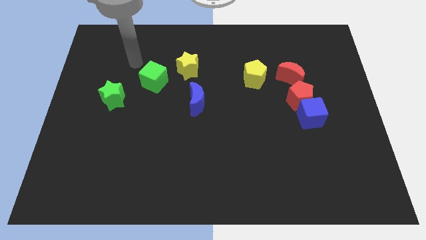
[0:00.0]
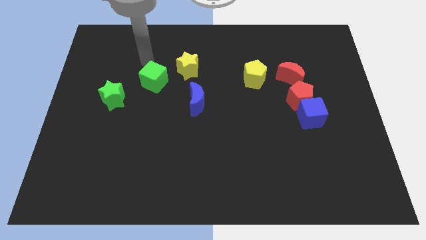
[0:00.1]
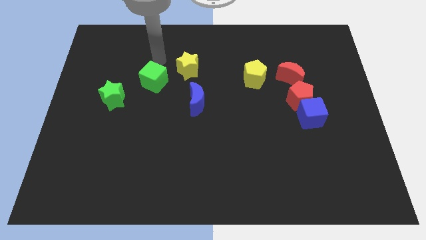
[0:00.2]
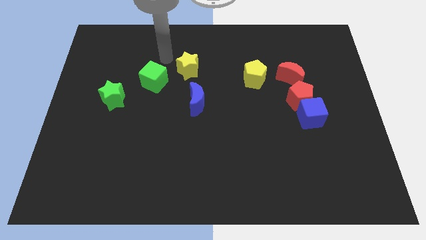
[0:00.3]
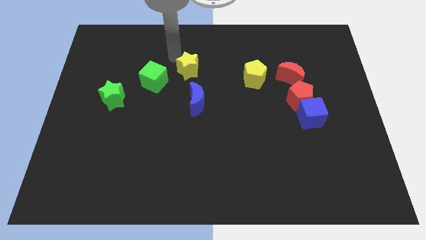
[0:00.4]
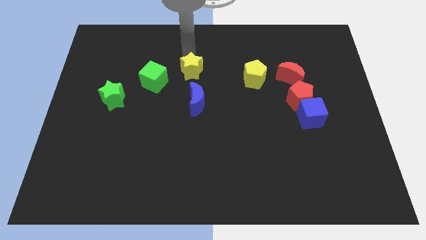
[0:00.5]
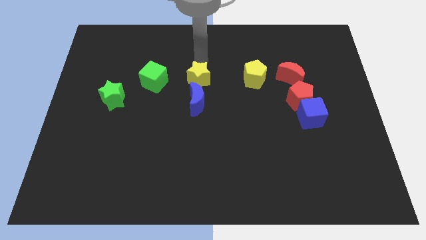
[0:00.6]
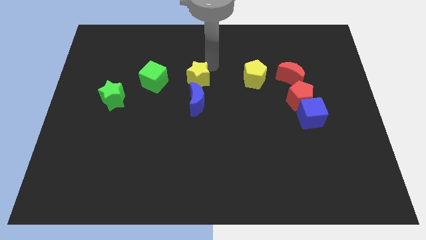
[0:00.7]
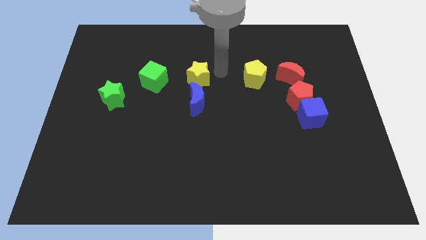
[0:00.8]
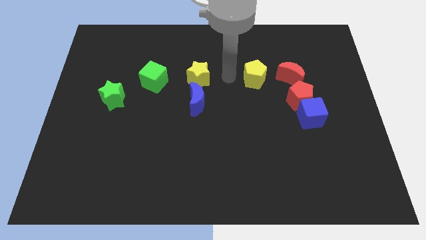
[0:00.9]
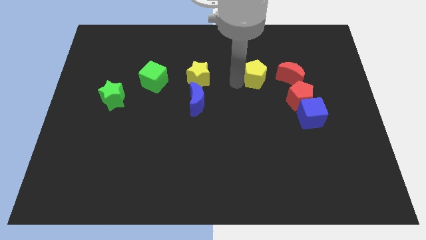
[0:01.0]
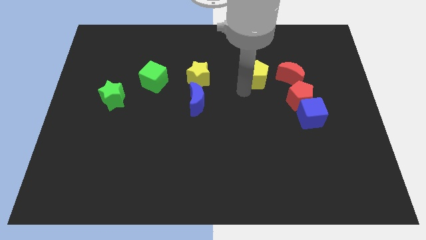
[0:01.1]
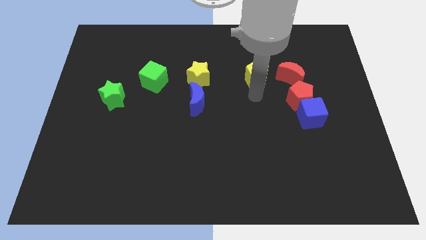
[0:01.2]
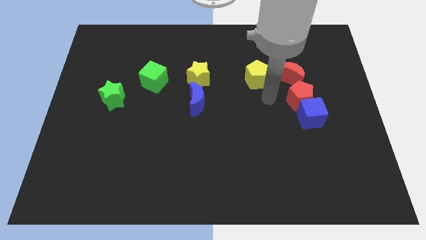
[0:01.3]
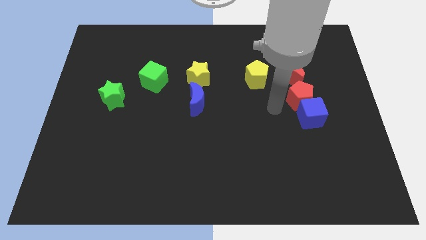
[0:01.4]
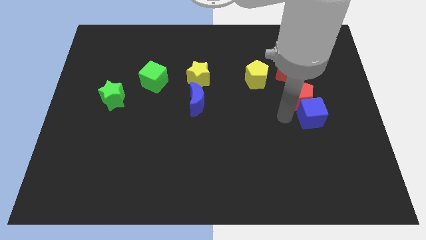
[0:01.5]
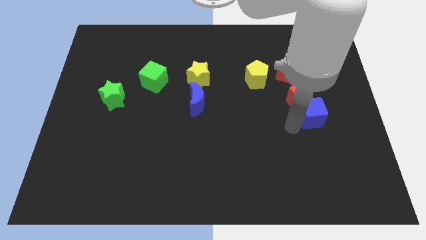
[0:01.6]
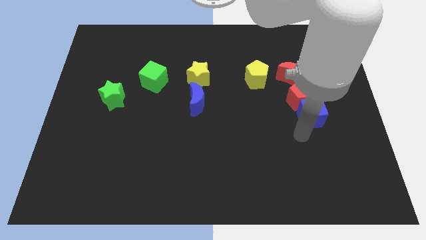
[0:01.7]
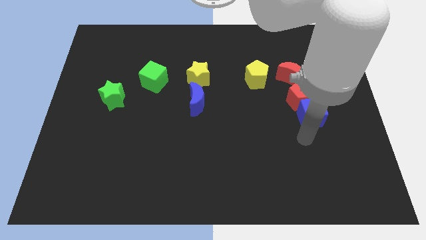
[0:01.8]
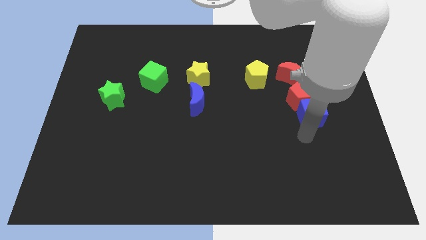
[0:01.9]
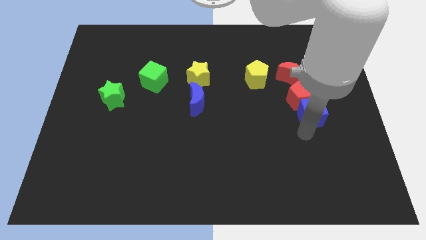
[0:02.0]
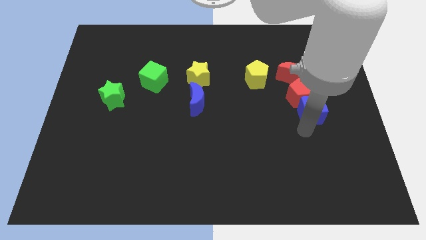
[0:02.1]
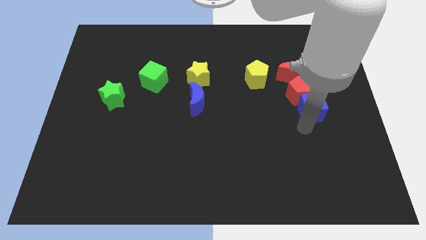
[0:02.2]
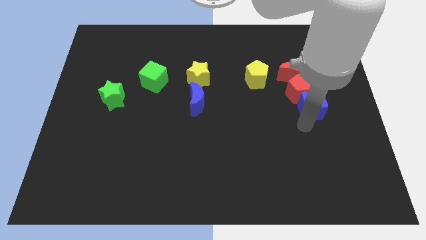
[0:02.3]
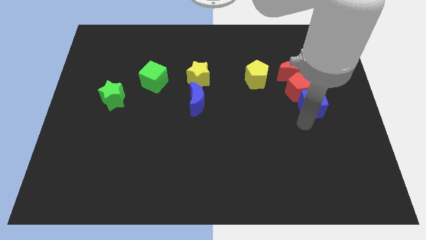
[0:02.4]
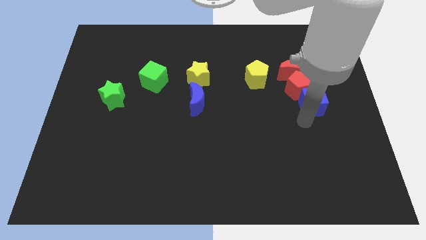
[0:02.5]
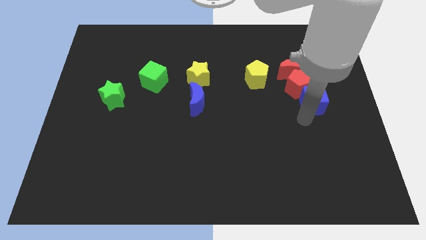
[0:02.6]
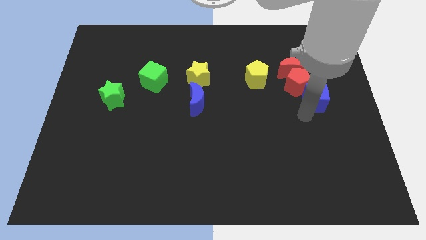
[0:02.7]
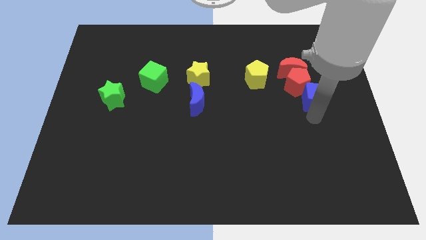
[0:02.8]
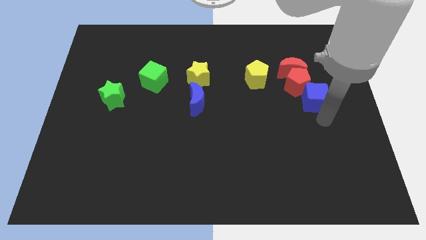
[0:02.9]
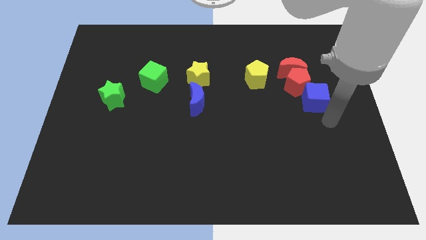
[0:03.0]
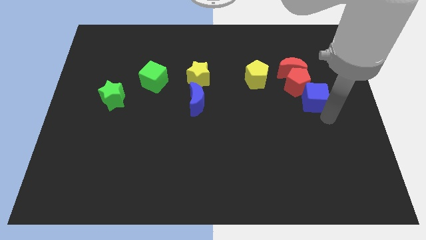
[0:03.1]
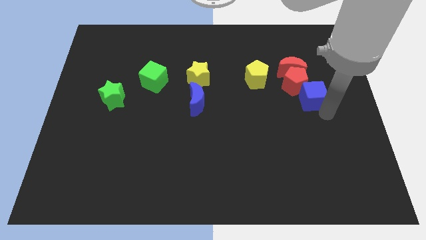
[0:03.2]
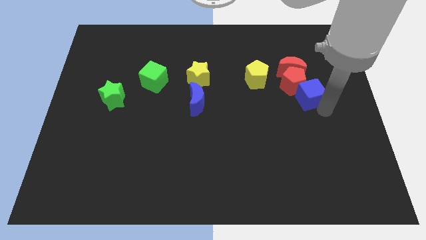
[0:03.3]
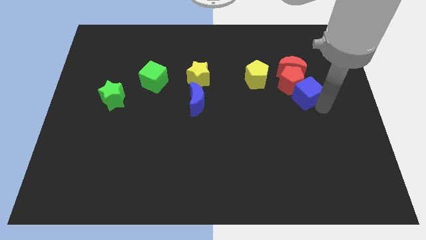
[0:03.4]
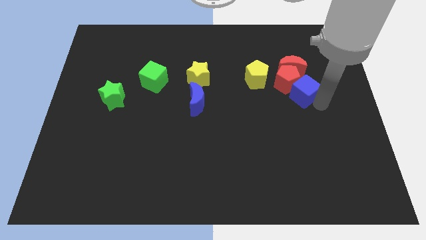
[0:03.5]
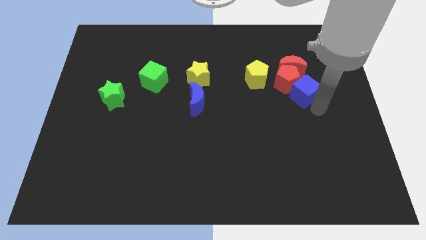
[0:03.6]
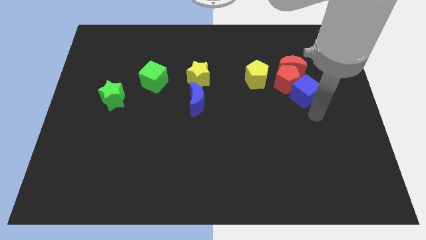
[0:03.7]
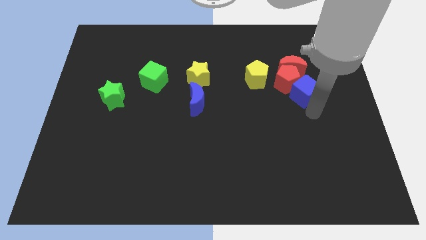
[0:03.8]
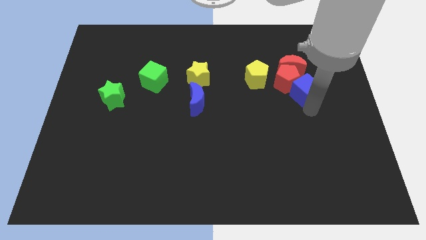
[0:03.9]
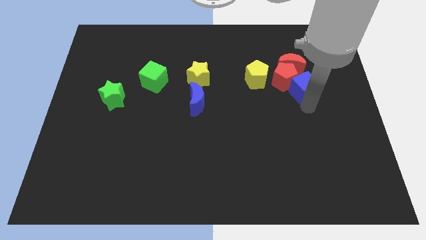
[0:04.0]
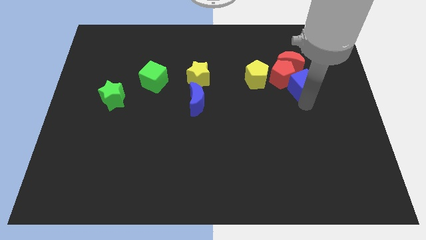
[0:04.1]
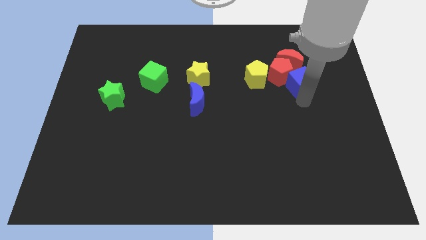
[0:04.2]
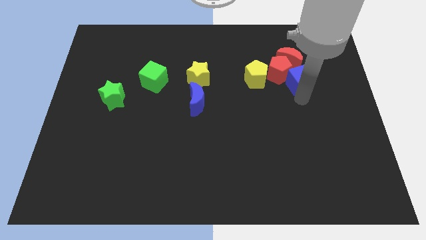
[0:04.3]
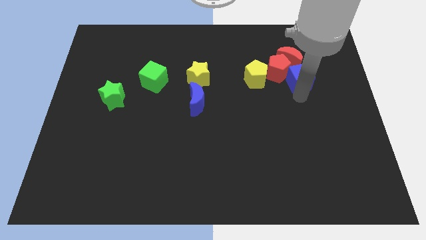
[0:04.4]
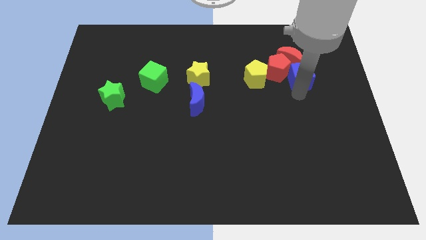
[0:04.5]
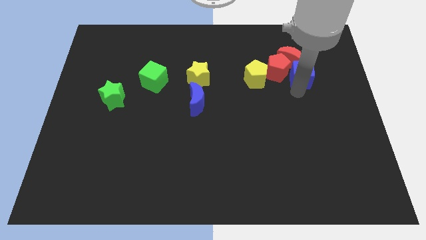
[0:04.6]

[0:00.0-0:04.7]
push the blue cube to the red moon

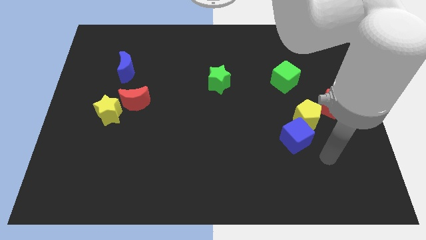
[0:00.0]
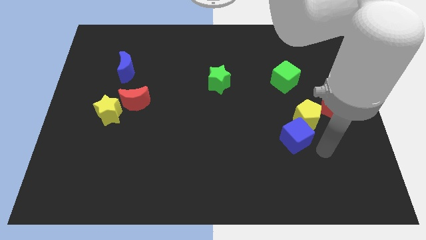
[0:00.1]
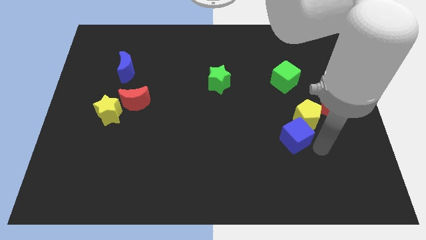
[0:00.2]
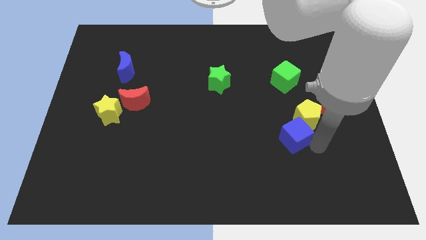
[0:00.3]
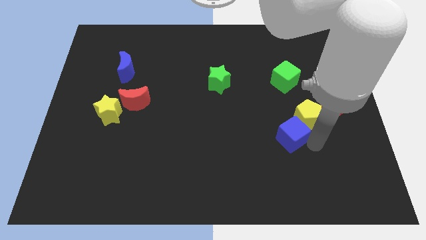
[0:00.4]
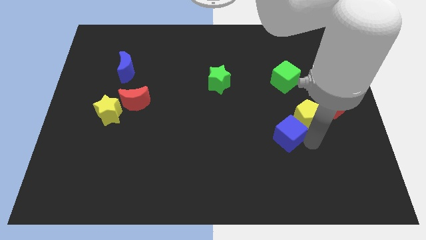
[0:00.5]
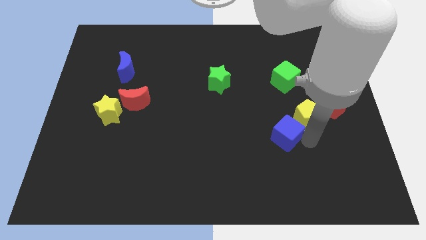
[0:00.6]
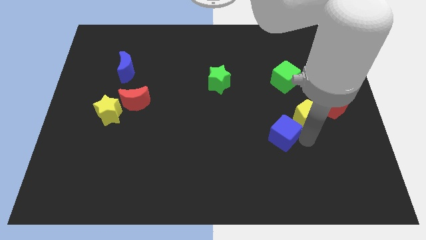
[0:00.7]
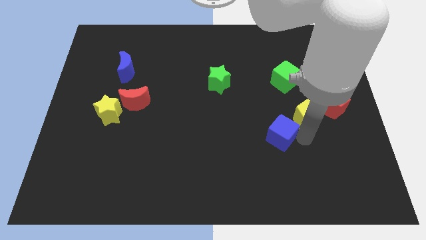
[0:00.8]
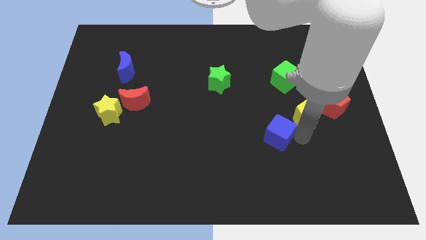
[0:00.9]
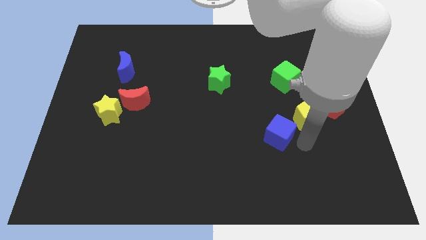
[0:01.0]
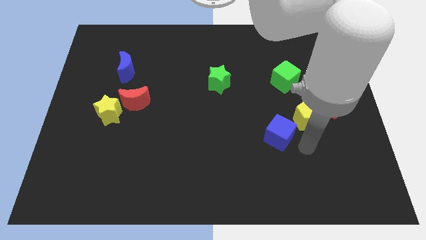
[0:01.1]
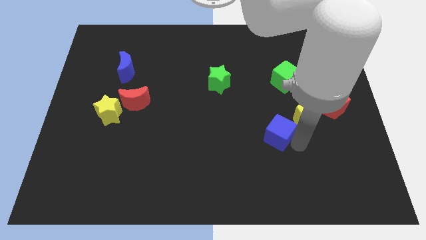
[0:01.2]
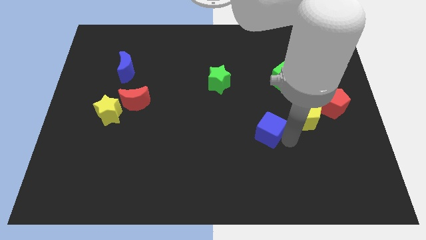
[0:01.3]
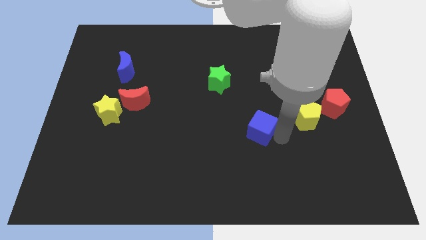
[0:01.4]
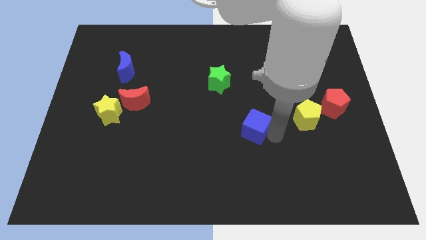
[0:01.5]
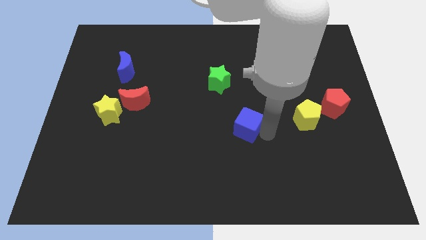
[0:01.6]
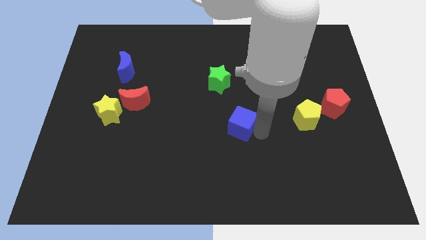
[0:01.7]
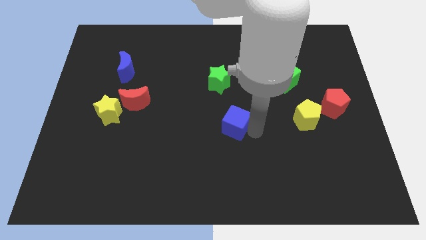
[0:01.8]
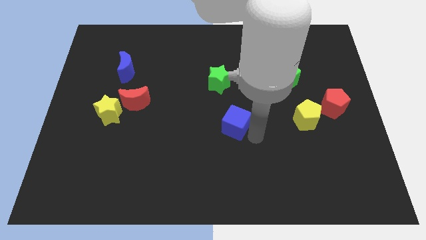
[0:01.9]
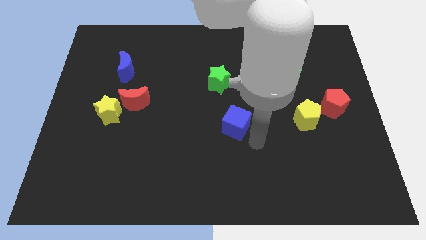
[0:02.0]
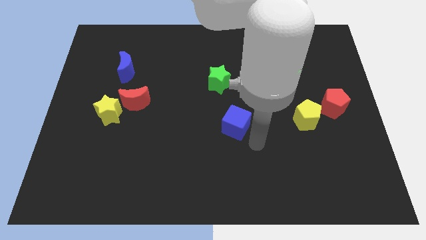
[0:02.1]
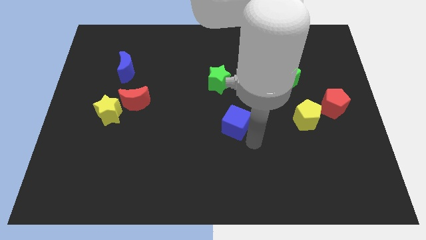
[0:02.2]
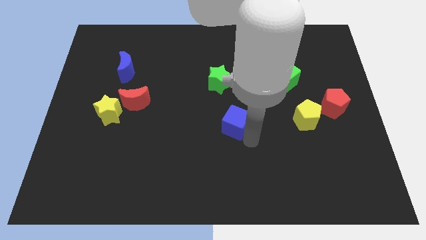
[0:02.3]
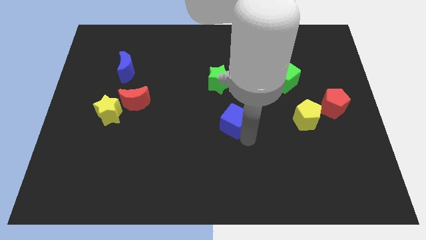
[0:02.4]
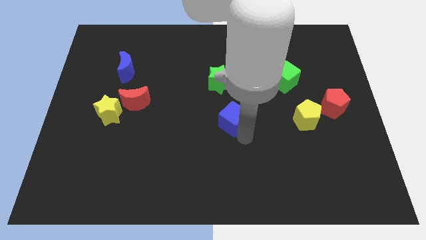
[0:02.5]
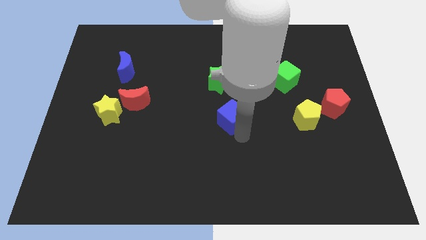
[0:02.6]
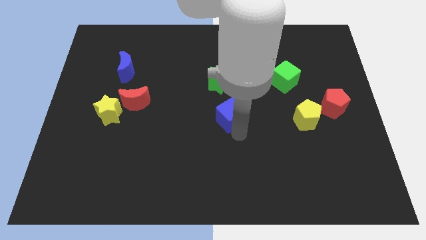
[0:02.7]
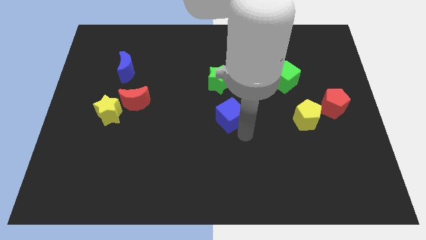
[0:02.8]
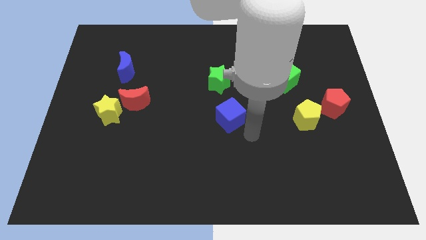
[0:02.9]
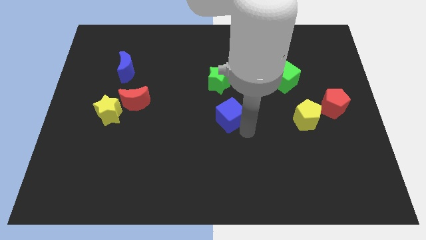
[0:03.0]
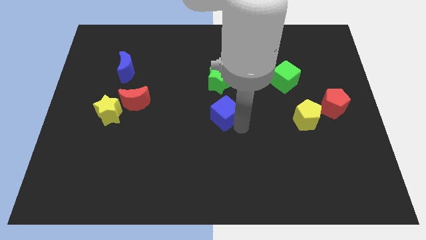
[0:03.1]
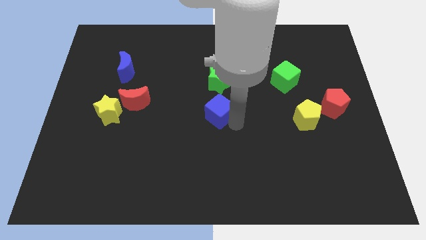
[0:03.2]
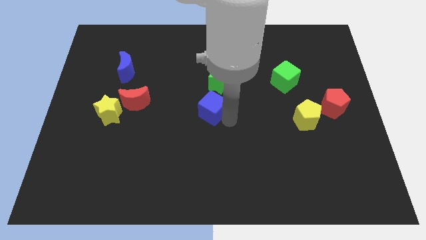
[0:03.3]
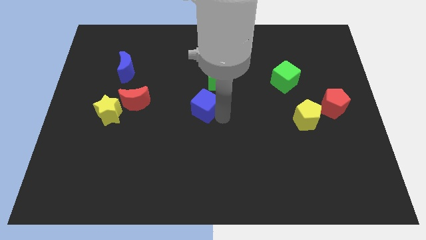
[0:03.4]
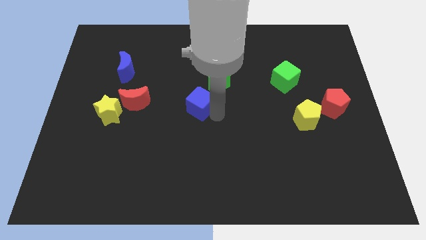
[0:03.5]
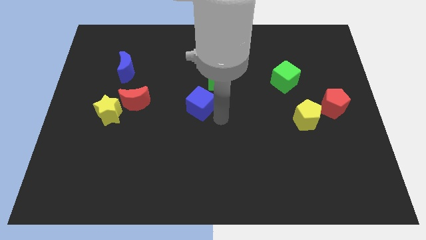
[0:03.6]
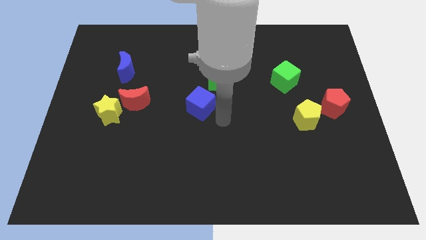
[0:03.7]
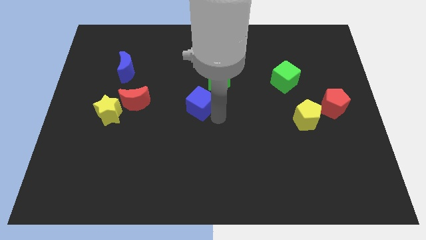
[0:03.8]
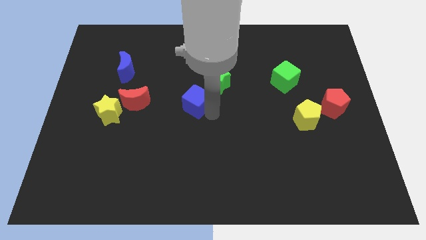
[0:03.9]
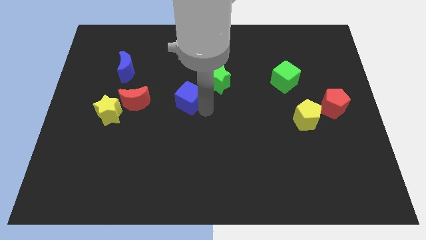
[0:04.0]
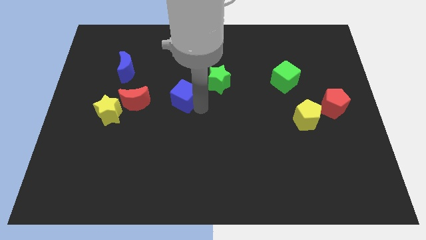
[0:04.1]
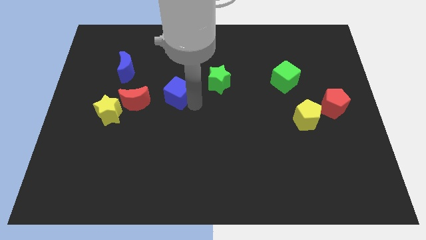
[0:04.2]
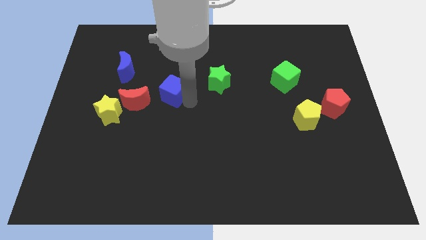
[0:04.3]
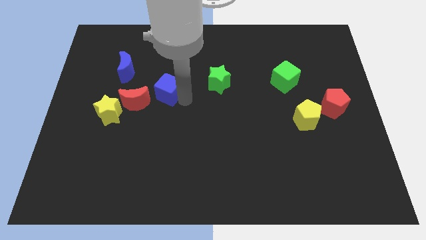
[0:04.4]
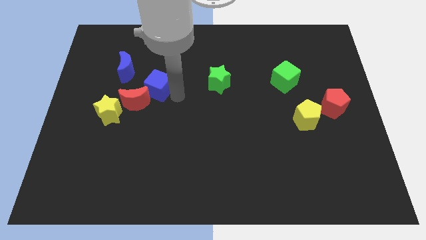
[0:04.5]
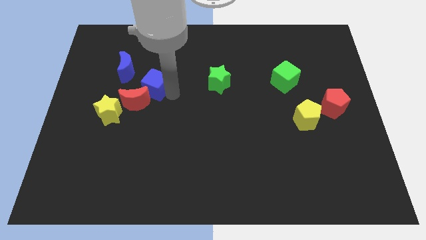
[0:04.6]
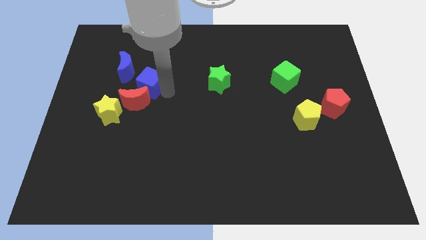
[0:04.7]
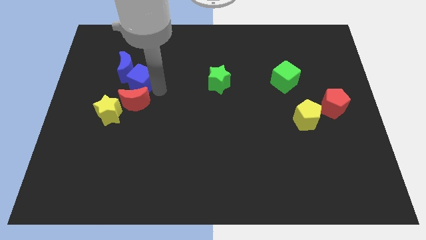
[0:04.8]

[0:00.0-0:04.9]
move the blue cube close to the blue moon
